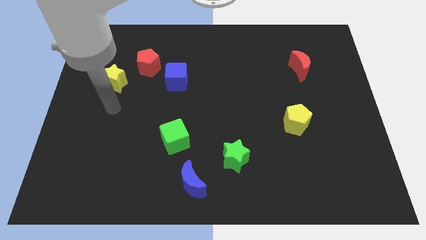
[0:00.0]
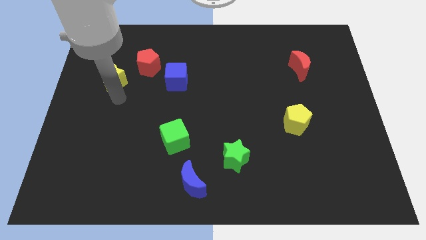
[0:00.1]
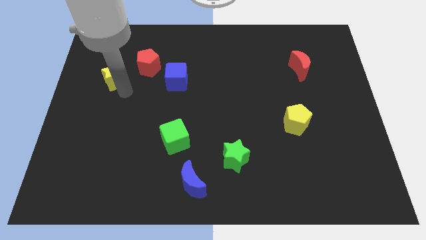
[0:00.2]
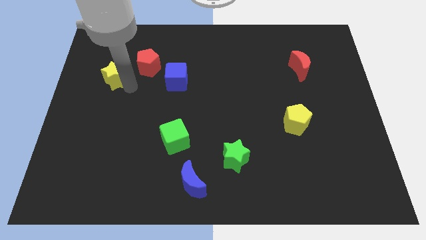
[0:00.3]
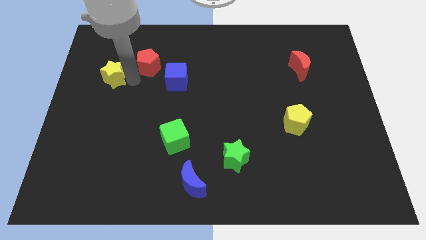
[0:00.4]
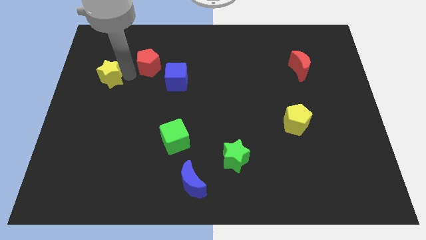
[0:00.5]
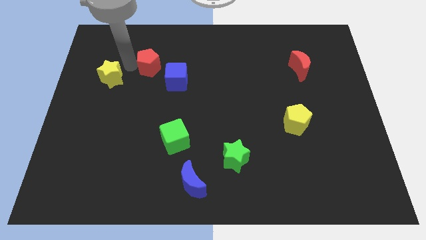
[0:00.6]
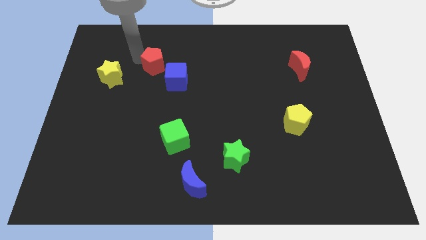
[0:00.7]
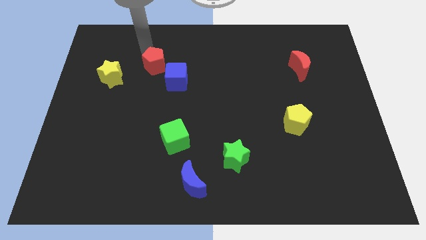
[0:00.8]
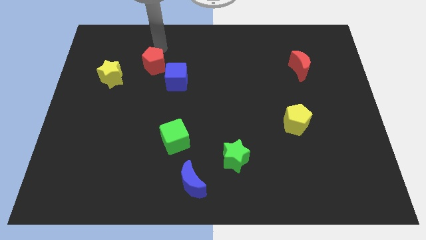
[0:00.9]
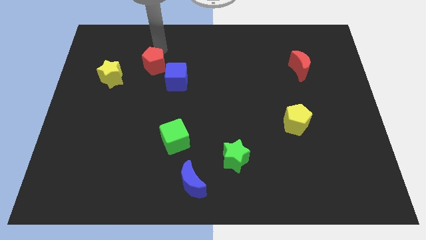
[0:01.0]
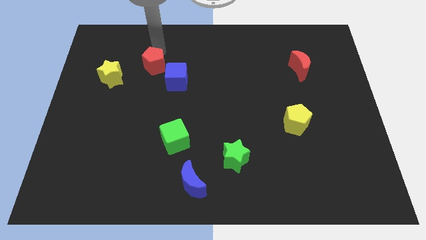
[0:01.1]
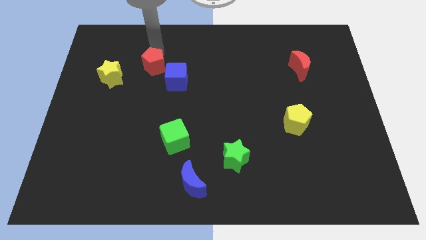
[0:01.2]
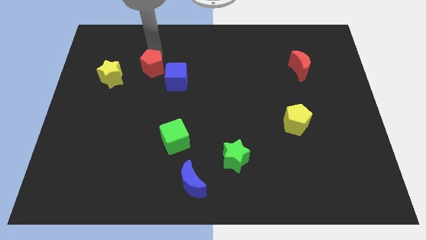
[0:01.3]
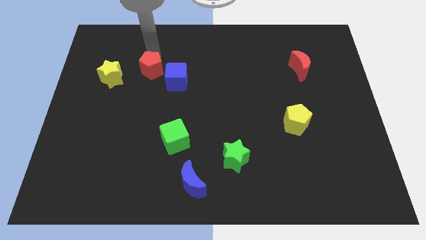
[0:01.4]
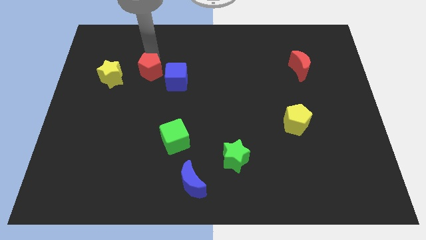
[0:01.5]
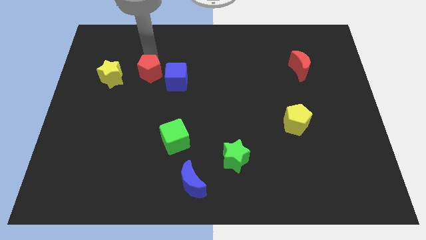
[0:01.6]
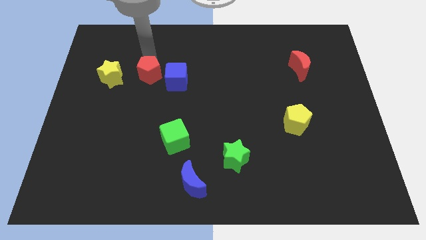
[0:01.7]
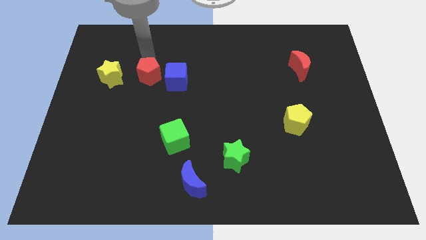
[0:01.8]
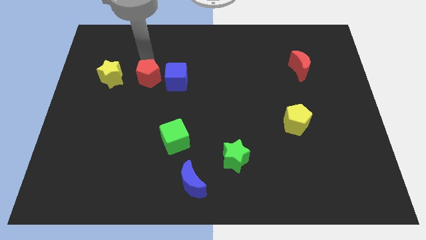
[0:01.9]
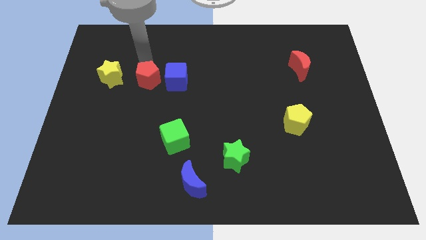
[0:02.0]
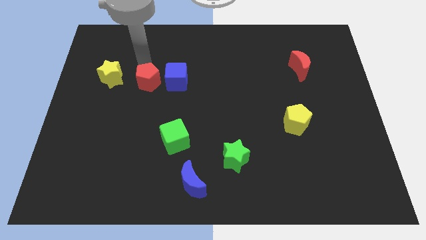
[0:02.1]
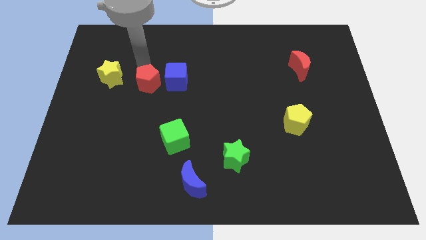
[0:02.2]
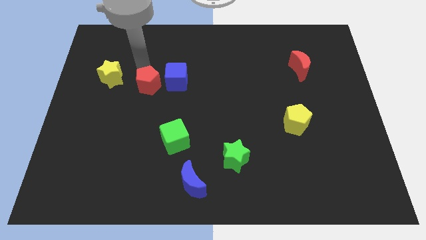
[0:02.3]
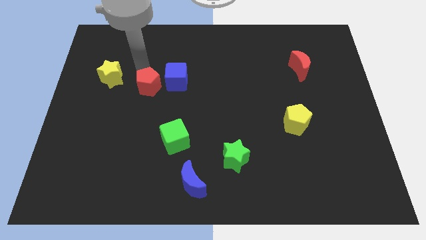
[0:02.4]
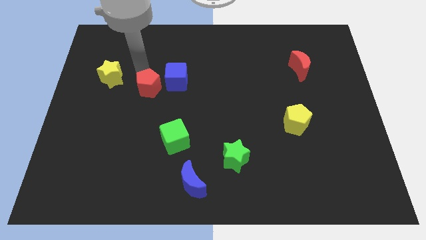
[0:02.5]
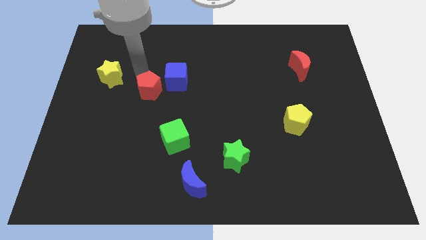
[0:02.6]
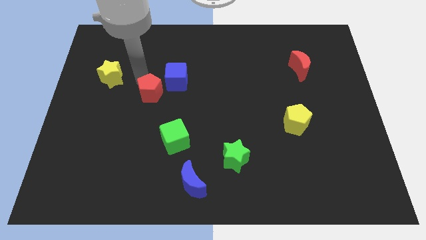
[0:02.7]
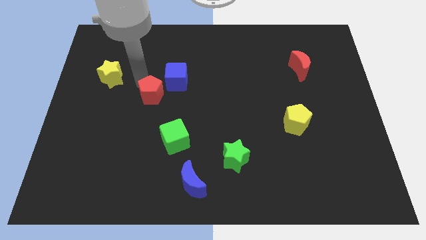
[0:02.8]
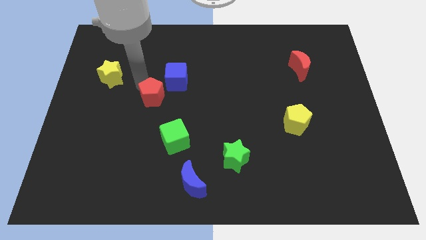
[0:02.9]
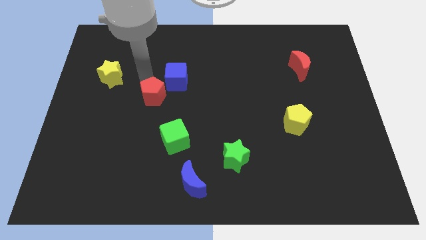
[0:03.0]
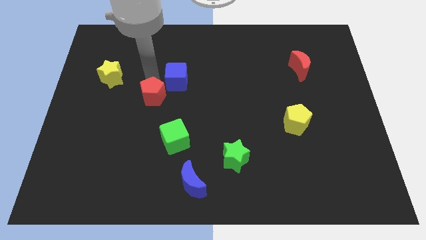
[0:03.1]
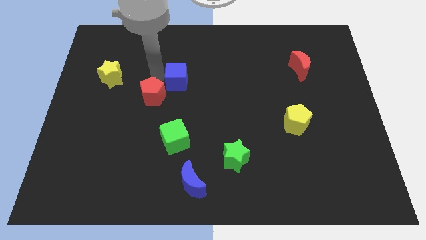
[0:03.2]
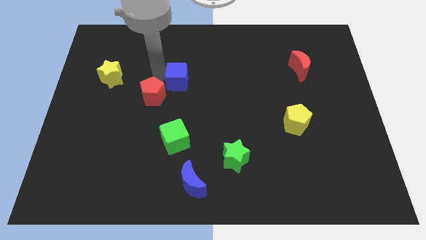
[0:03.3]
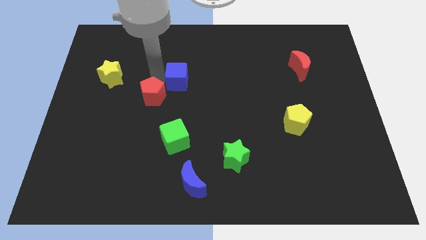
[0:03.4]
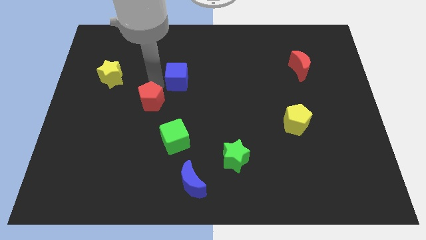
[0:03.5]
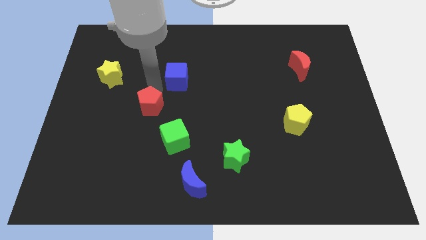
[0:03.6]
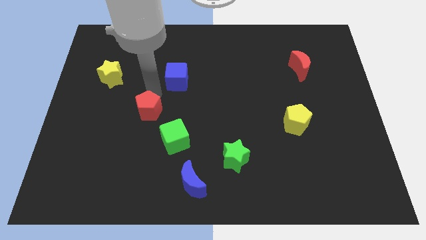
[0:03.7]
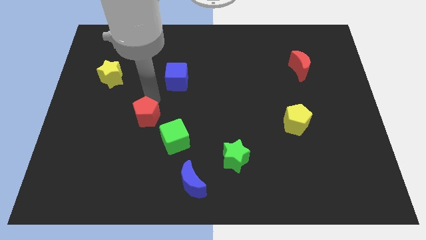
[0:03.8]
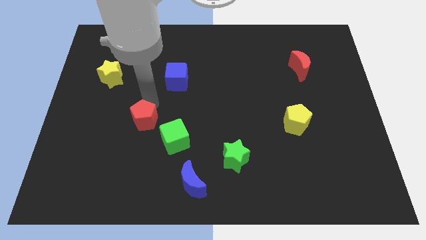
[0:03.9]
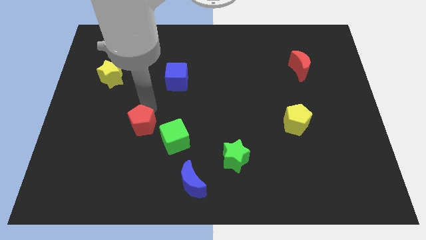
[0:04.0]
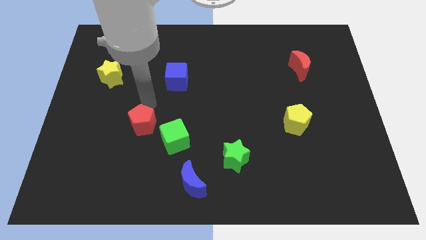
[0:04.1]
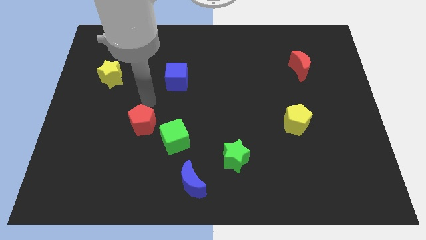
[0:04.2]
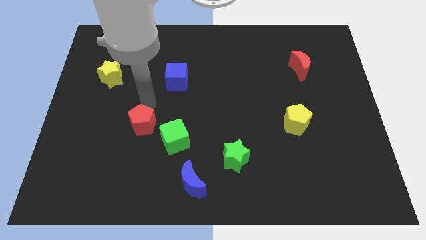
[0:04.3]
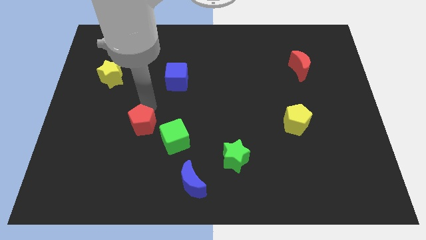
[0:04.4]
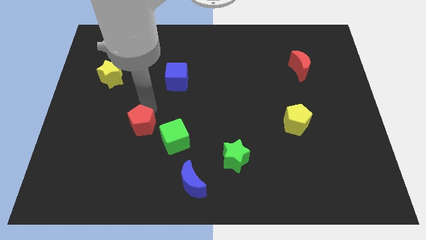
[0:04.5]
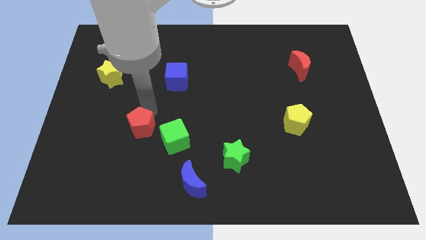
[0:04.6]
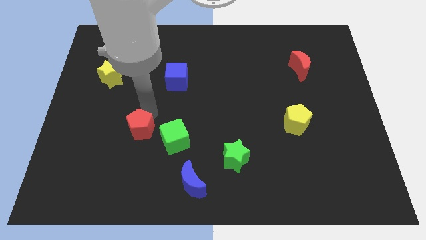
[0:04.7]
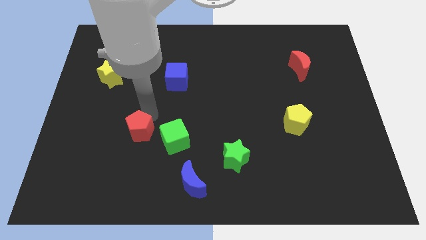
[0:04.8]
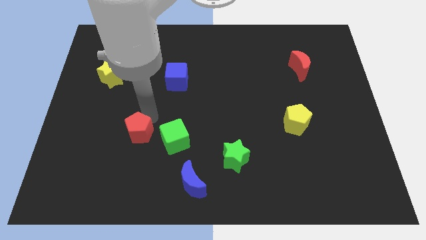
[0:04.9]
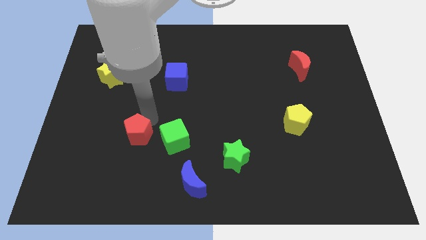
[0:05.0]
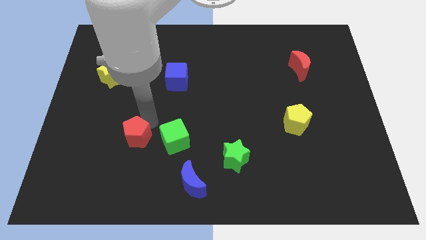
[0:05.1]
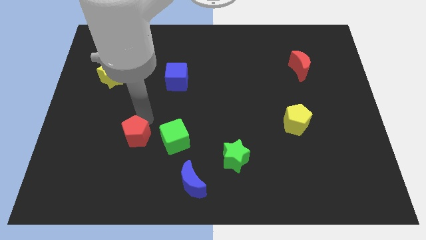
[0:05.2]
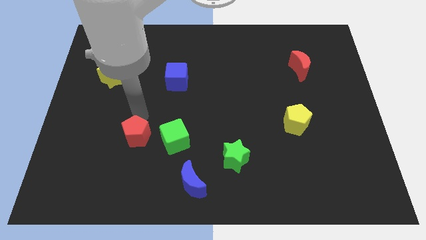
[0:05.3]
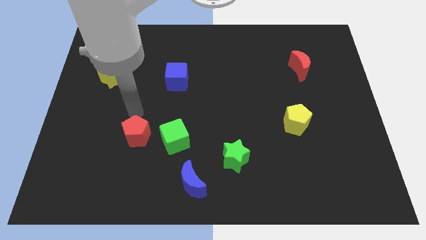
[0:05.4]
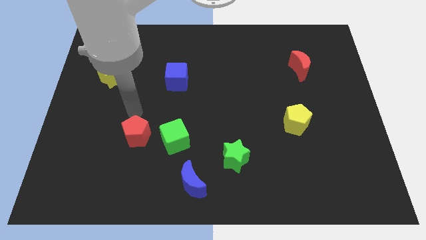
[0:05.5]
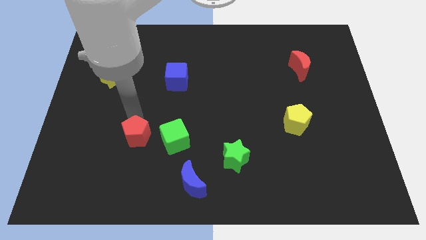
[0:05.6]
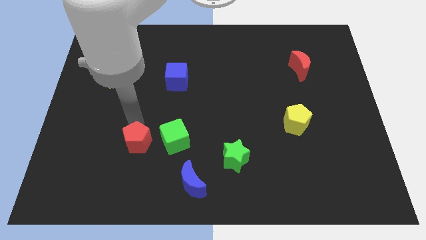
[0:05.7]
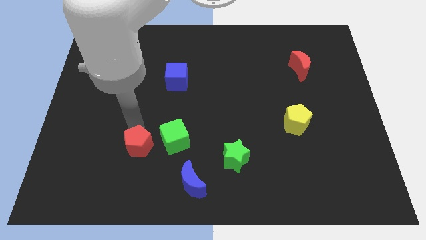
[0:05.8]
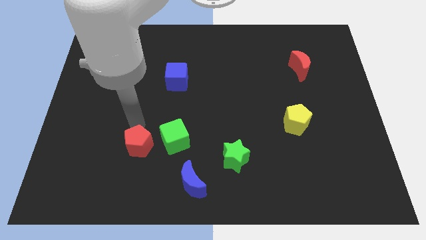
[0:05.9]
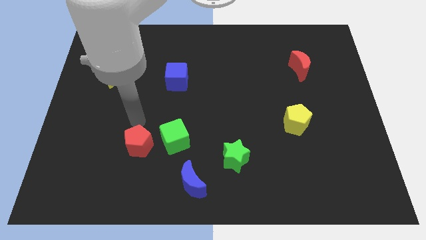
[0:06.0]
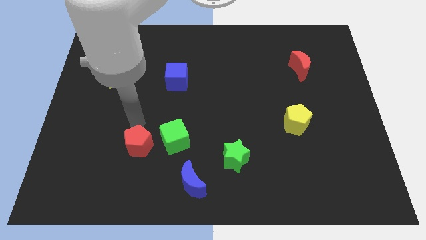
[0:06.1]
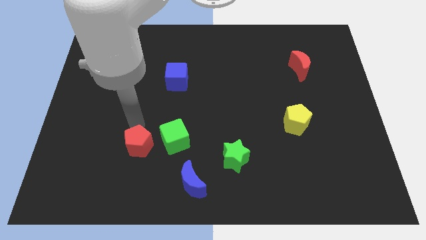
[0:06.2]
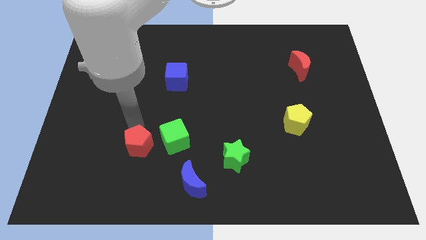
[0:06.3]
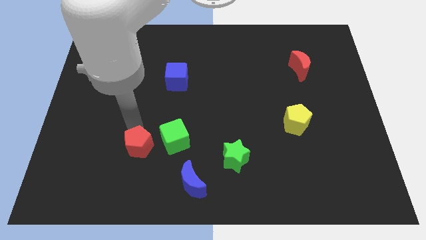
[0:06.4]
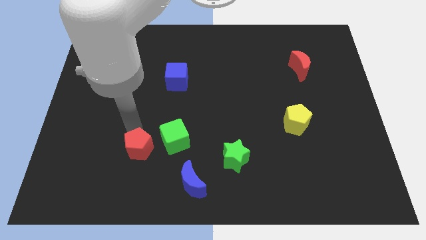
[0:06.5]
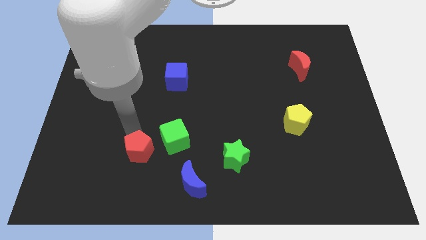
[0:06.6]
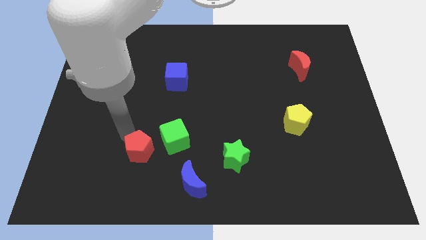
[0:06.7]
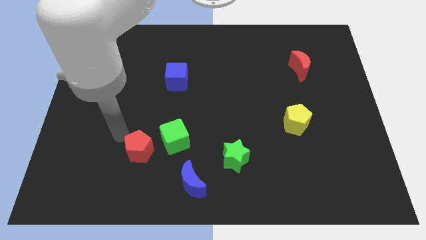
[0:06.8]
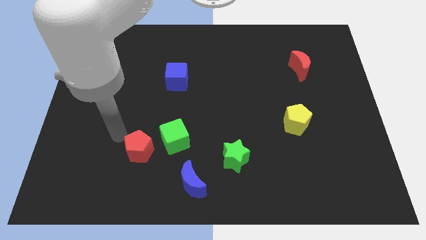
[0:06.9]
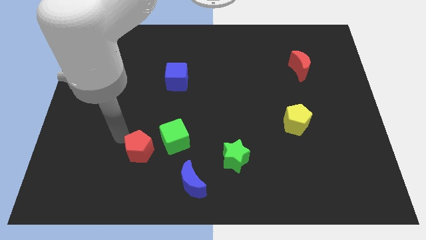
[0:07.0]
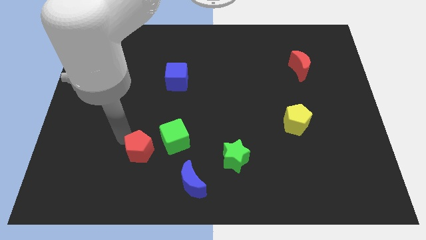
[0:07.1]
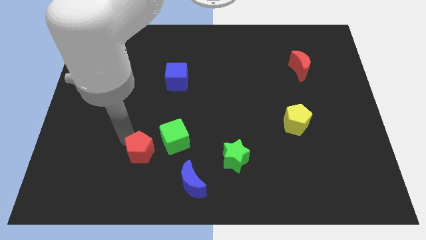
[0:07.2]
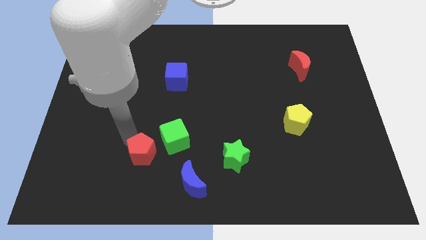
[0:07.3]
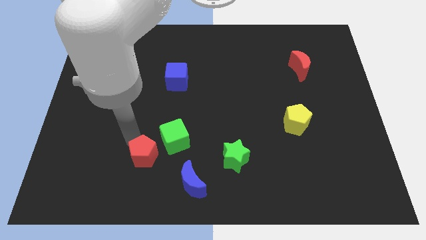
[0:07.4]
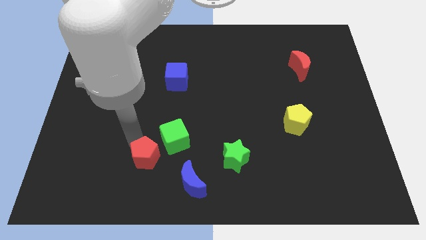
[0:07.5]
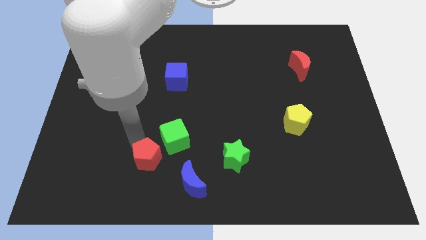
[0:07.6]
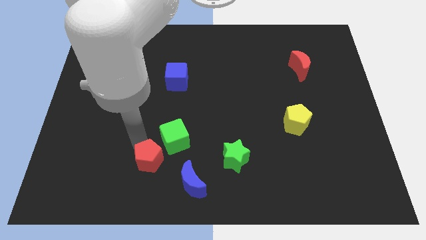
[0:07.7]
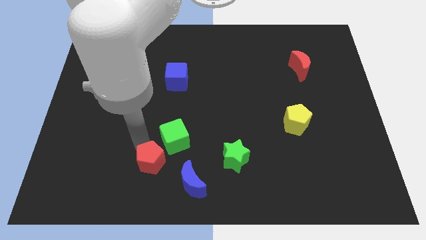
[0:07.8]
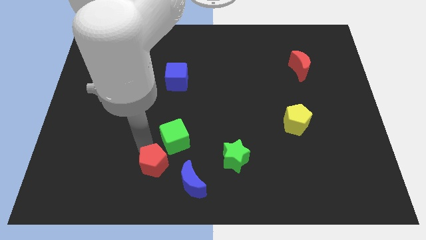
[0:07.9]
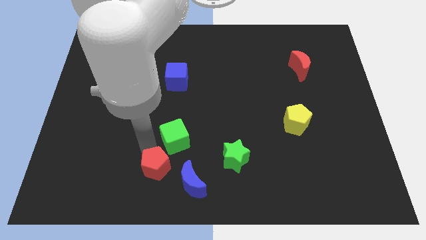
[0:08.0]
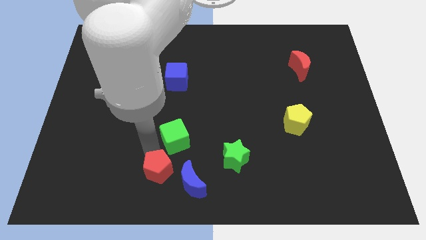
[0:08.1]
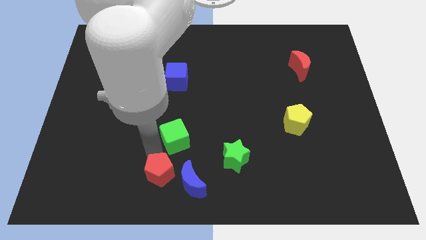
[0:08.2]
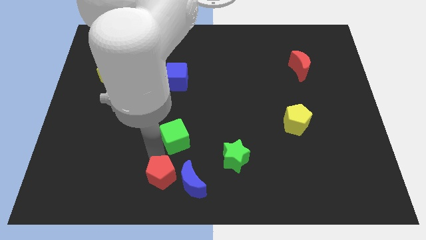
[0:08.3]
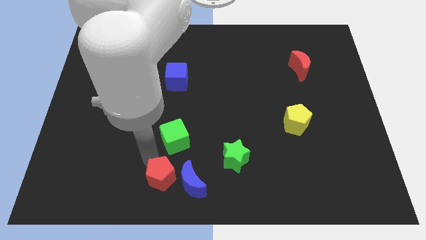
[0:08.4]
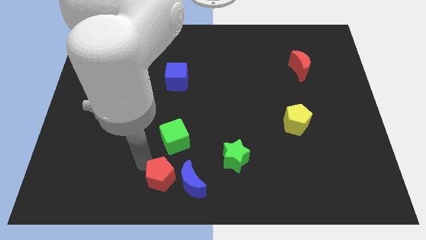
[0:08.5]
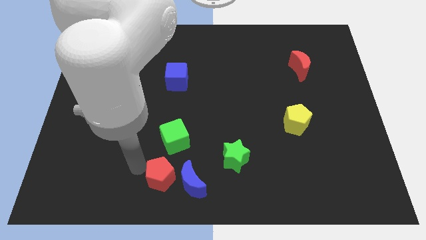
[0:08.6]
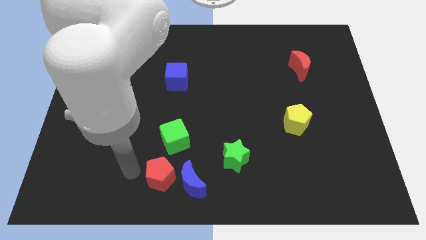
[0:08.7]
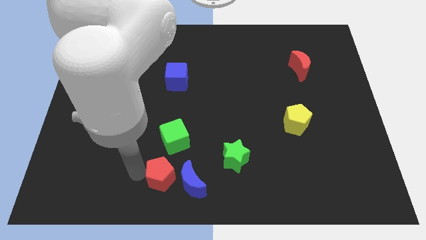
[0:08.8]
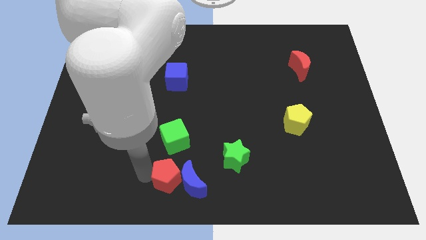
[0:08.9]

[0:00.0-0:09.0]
slide the red pentagon next to the blue moon
